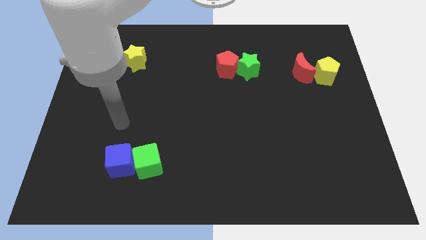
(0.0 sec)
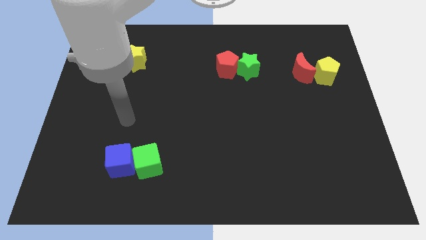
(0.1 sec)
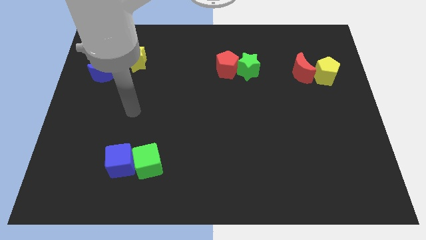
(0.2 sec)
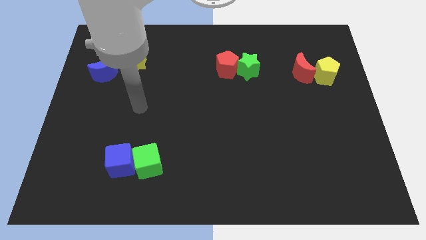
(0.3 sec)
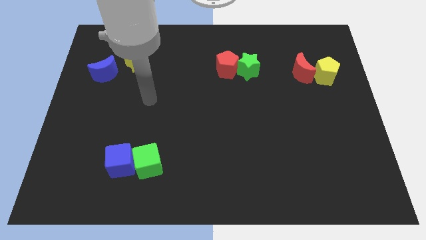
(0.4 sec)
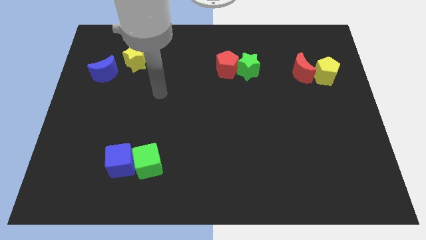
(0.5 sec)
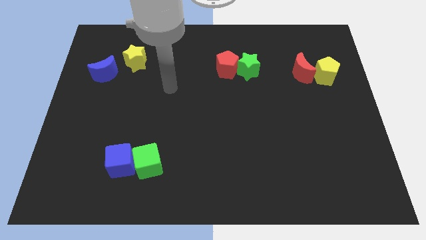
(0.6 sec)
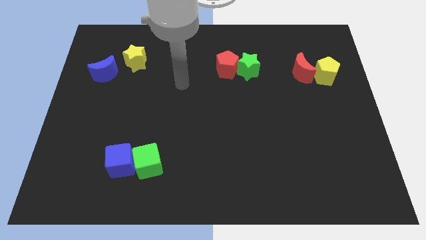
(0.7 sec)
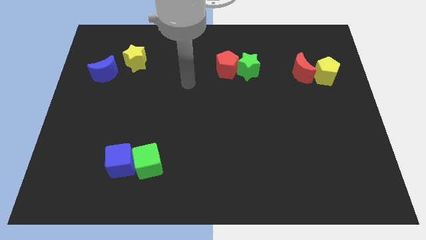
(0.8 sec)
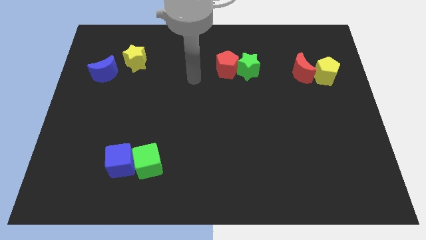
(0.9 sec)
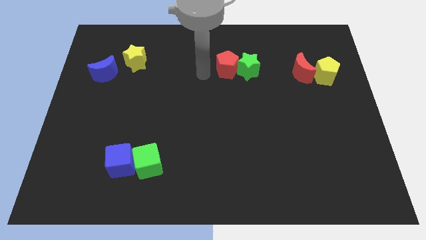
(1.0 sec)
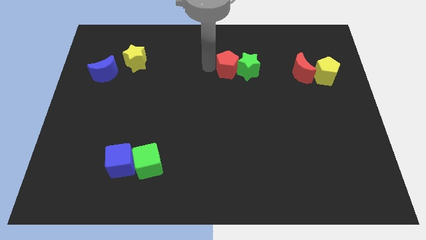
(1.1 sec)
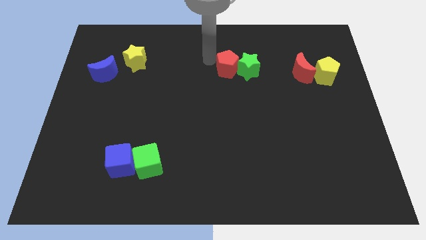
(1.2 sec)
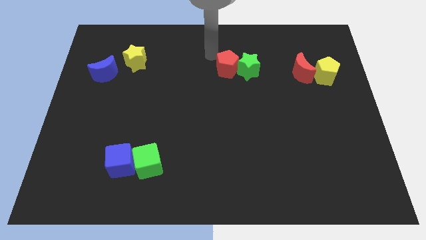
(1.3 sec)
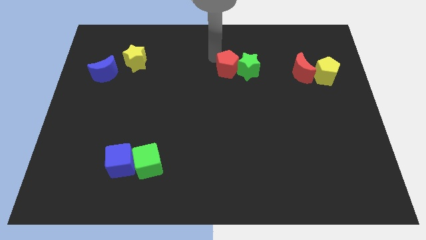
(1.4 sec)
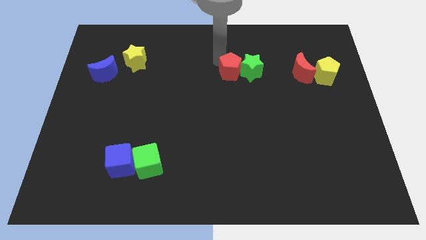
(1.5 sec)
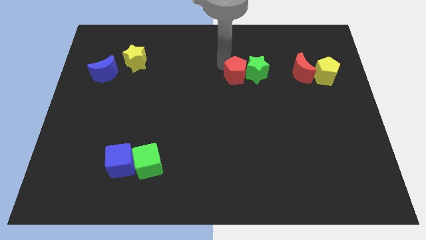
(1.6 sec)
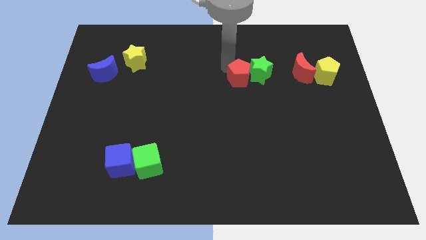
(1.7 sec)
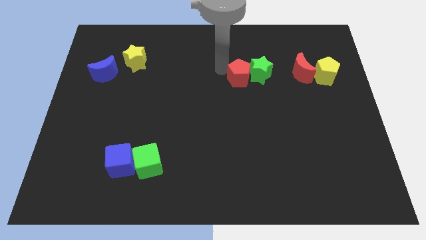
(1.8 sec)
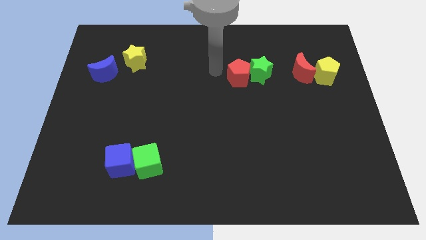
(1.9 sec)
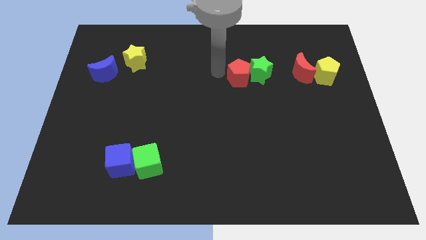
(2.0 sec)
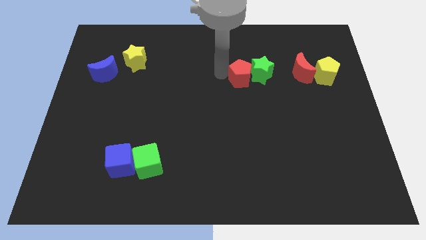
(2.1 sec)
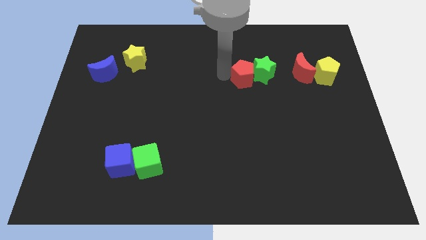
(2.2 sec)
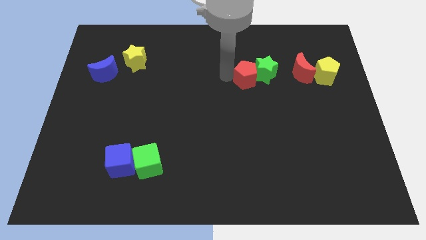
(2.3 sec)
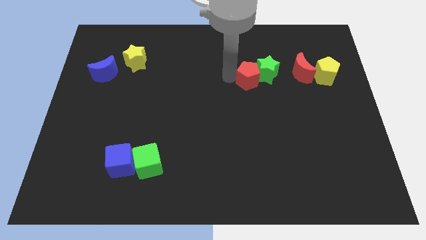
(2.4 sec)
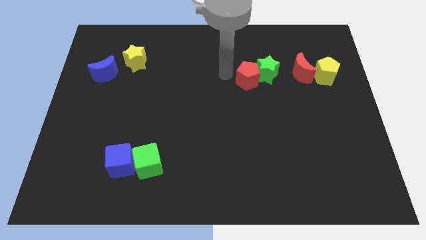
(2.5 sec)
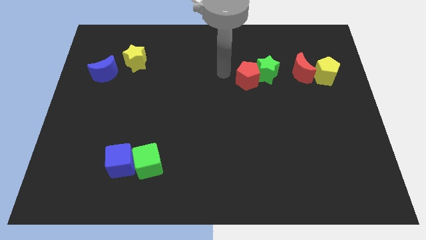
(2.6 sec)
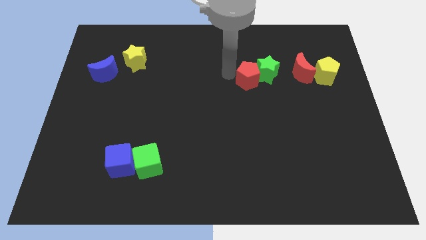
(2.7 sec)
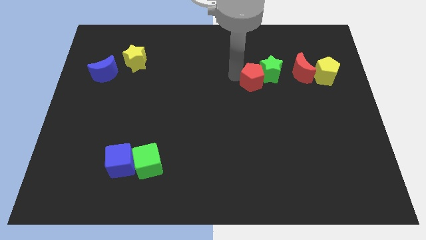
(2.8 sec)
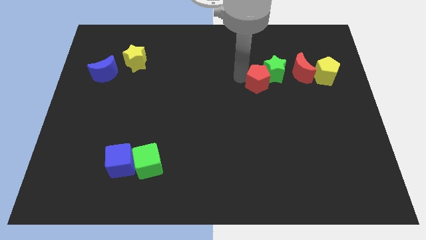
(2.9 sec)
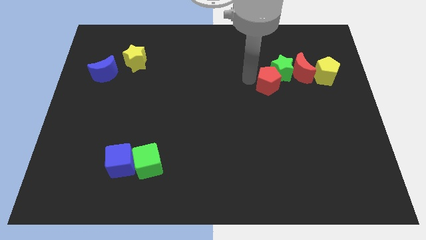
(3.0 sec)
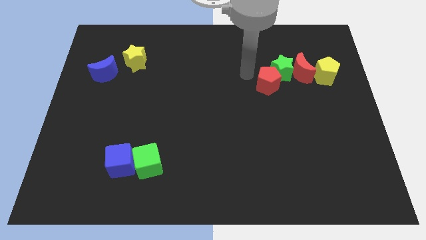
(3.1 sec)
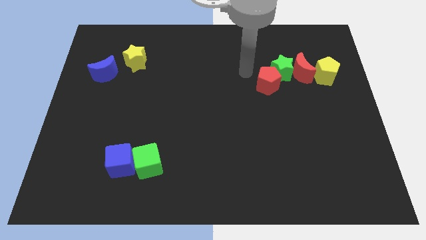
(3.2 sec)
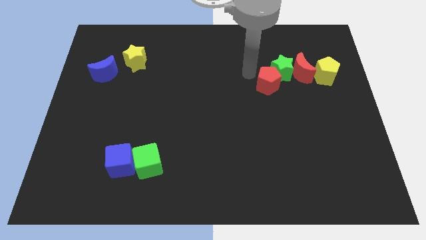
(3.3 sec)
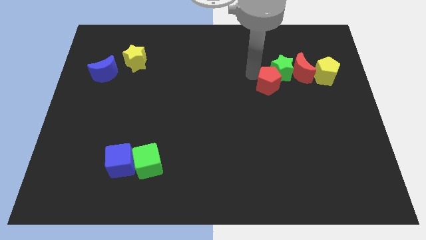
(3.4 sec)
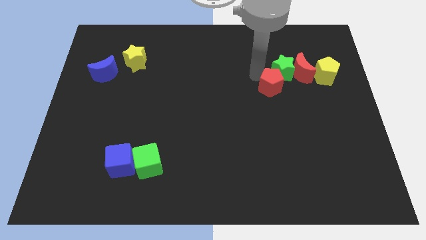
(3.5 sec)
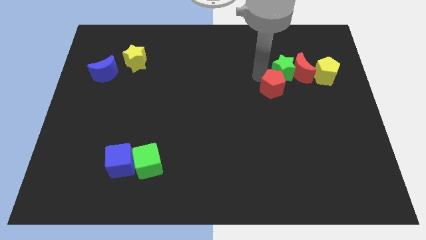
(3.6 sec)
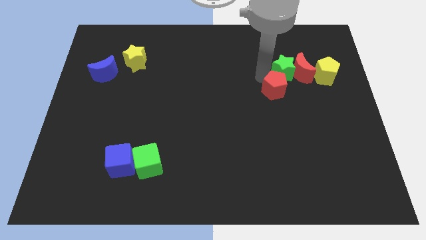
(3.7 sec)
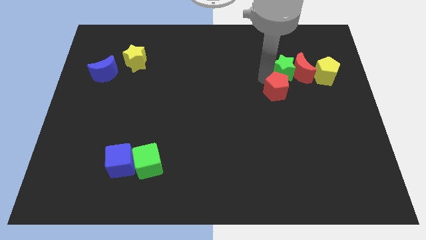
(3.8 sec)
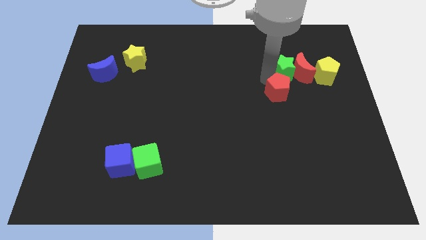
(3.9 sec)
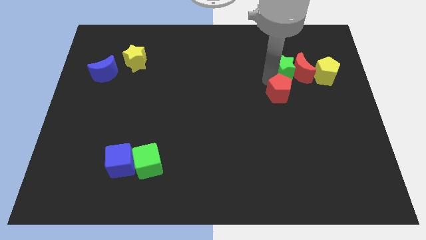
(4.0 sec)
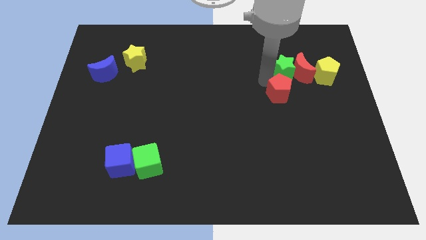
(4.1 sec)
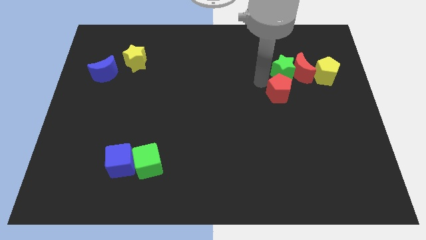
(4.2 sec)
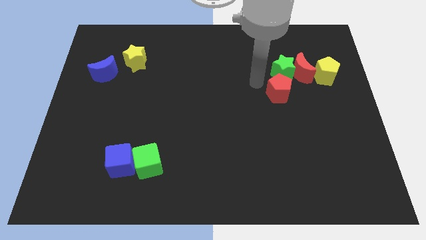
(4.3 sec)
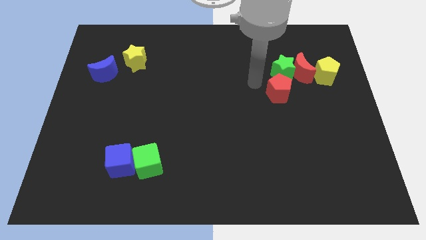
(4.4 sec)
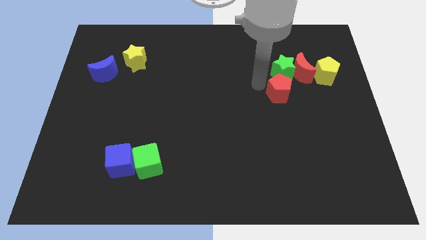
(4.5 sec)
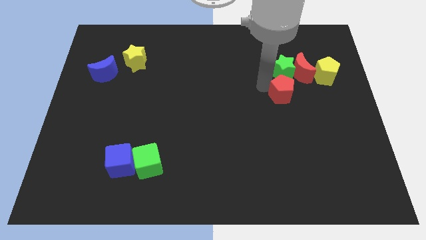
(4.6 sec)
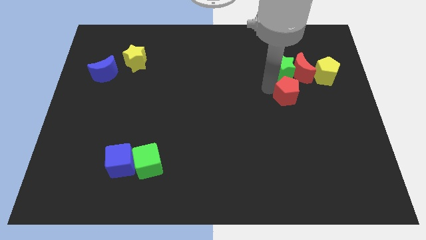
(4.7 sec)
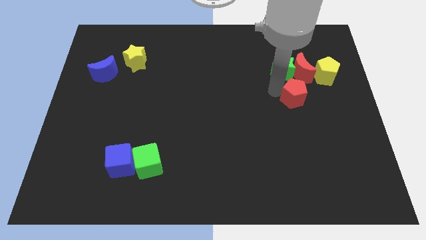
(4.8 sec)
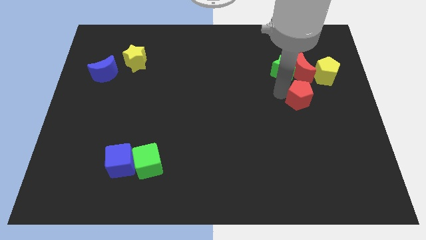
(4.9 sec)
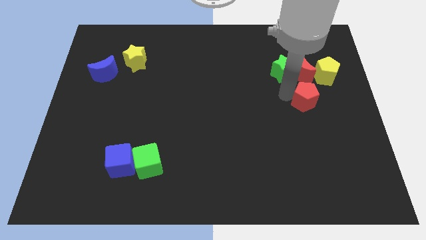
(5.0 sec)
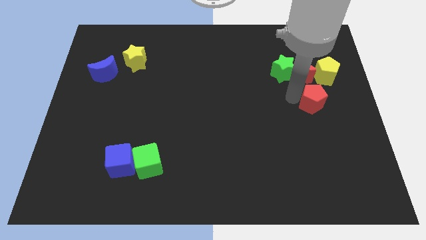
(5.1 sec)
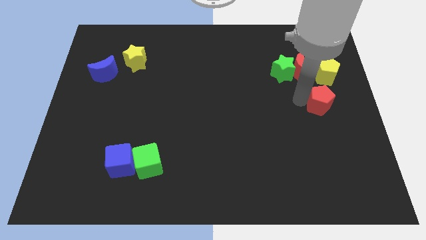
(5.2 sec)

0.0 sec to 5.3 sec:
slide the red pentagon to the right side of the board

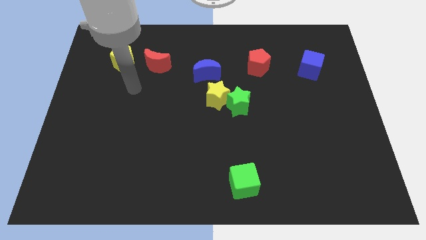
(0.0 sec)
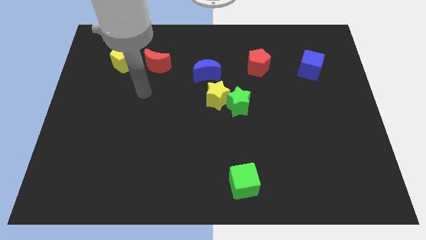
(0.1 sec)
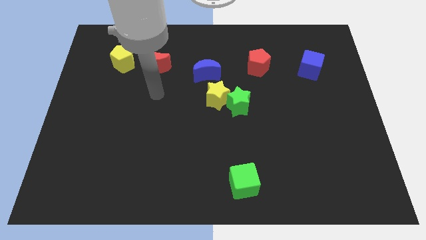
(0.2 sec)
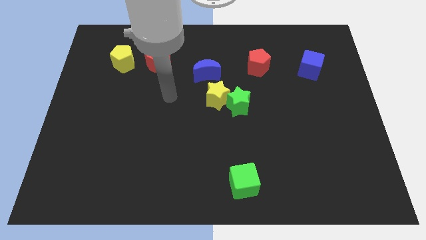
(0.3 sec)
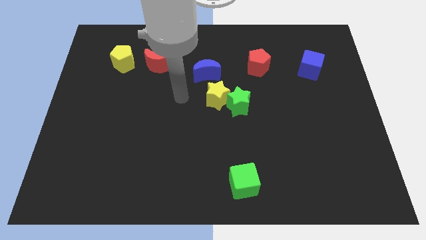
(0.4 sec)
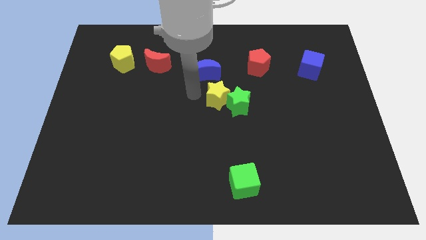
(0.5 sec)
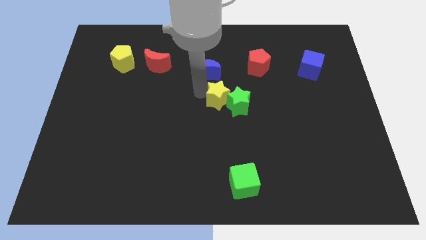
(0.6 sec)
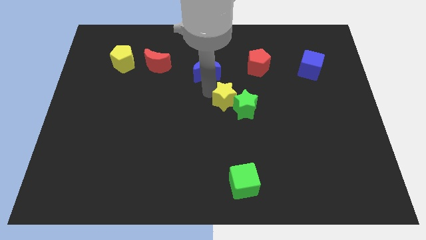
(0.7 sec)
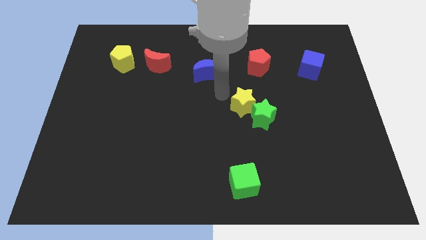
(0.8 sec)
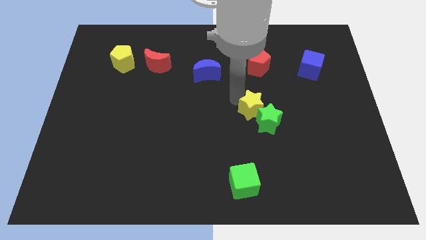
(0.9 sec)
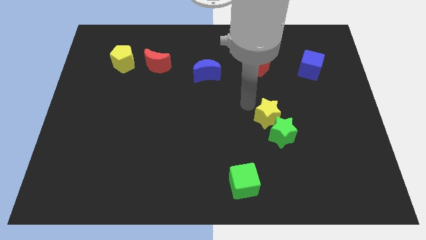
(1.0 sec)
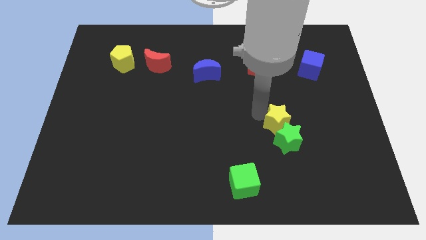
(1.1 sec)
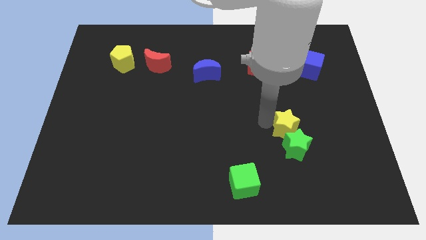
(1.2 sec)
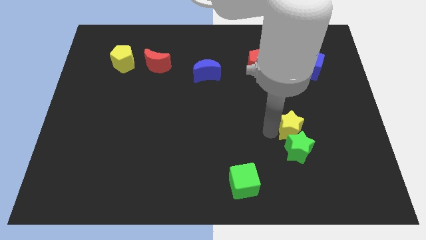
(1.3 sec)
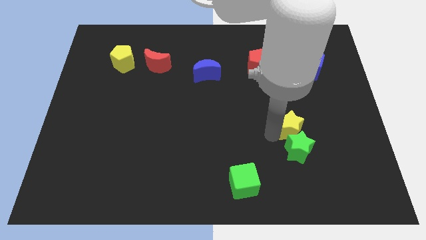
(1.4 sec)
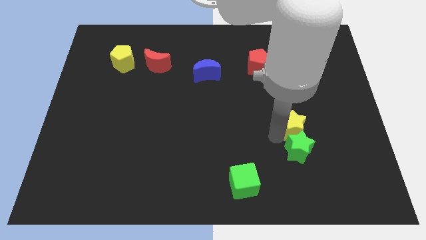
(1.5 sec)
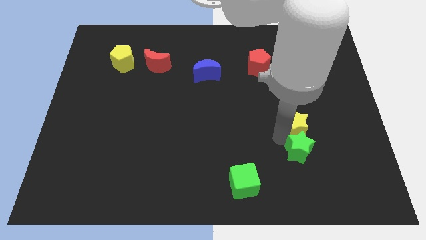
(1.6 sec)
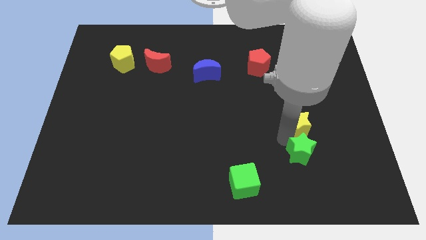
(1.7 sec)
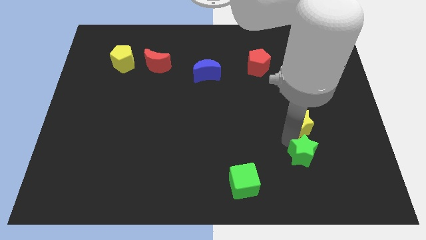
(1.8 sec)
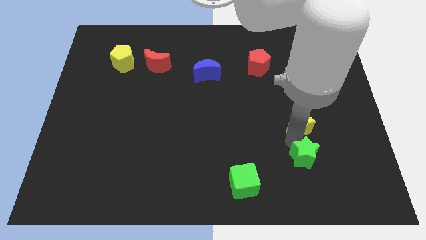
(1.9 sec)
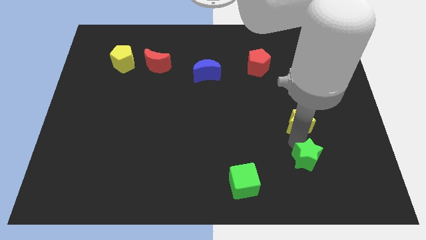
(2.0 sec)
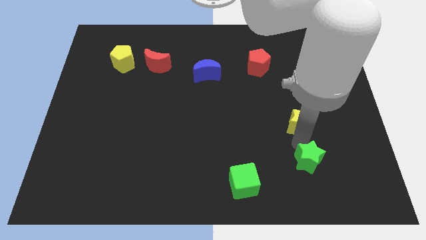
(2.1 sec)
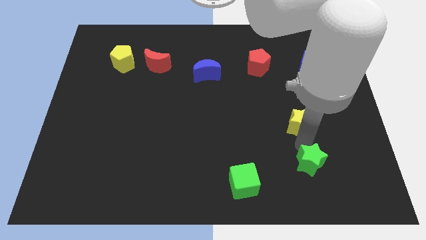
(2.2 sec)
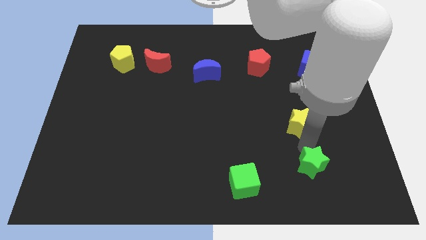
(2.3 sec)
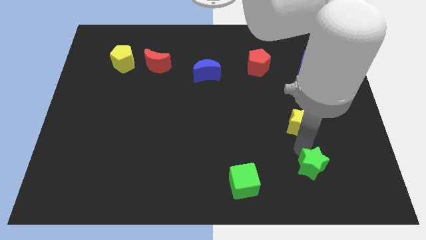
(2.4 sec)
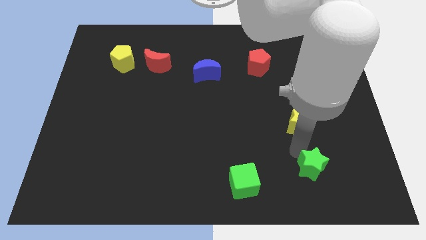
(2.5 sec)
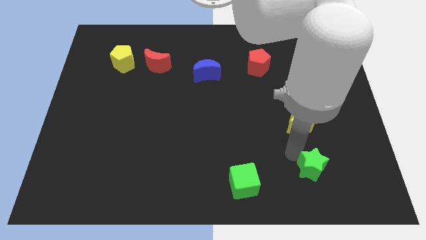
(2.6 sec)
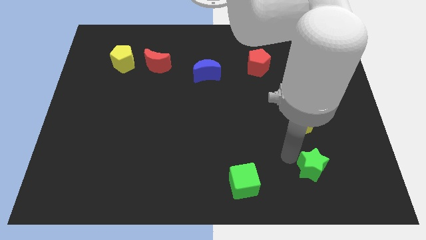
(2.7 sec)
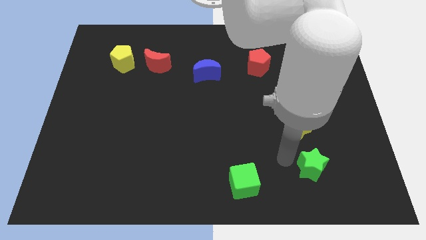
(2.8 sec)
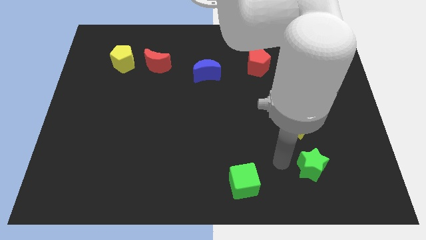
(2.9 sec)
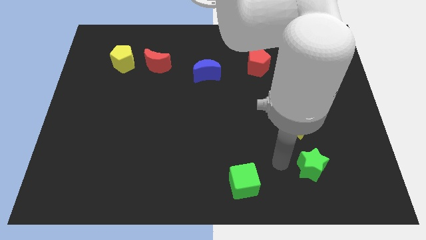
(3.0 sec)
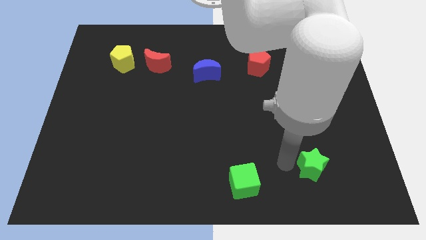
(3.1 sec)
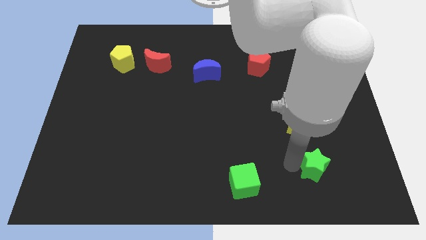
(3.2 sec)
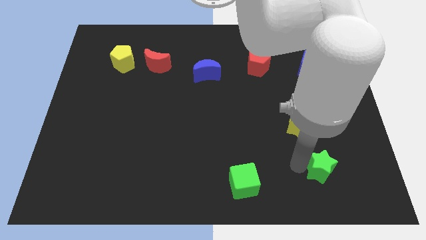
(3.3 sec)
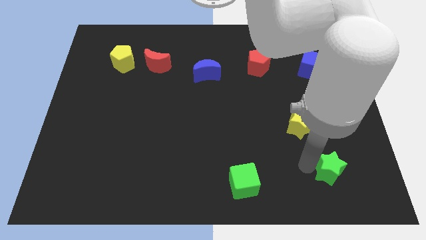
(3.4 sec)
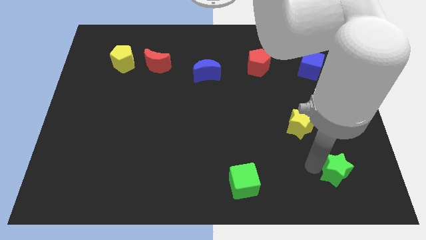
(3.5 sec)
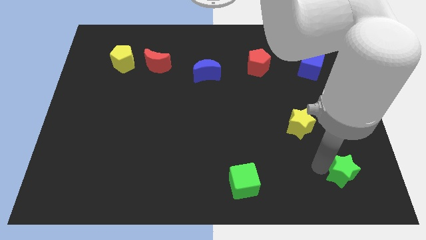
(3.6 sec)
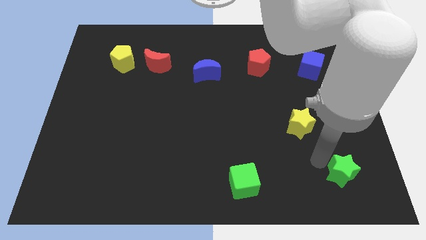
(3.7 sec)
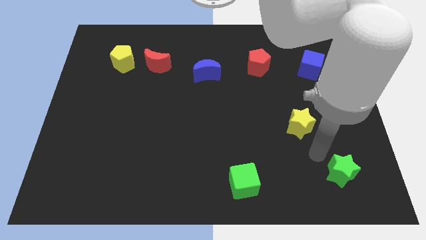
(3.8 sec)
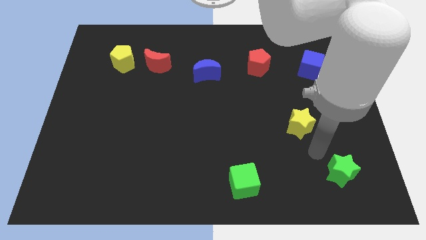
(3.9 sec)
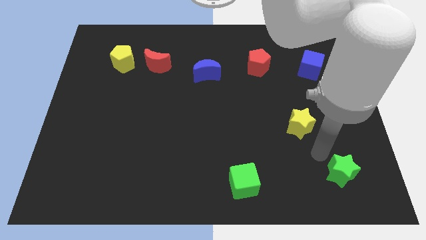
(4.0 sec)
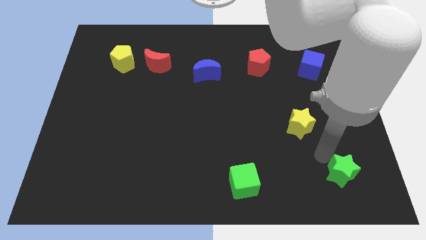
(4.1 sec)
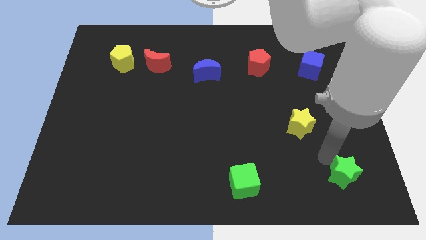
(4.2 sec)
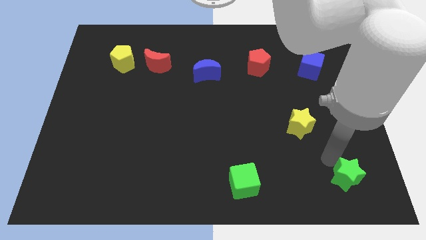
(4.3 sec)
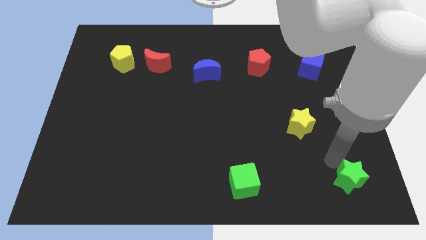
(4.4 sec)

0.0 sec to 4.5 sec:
slide the green star to the lower right corner
